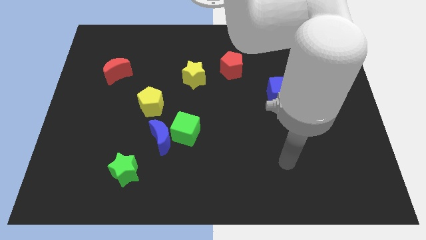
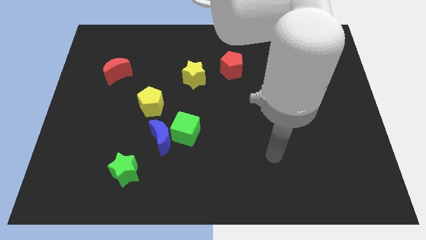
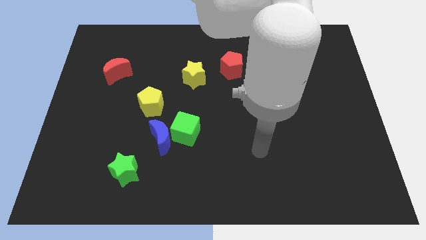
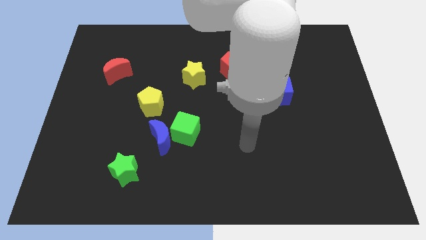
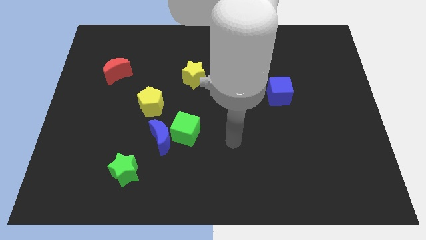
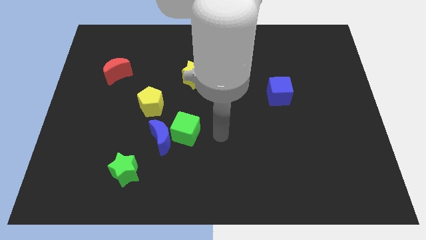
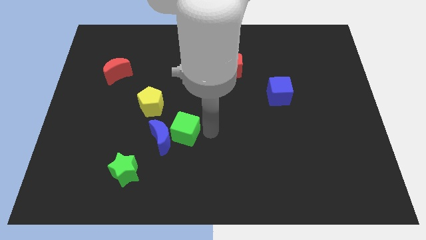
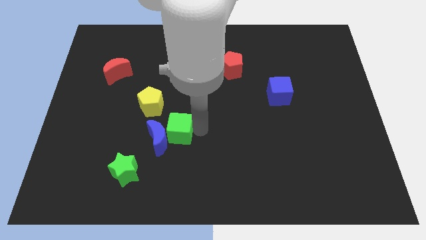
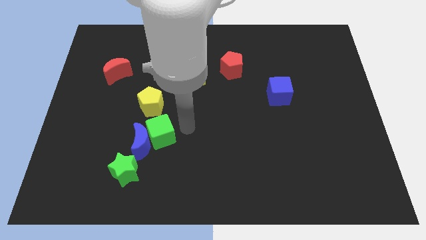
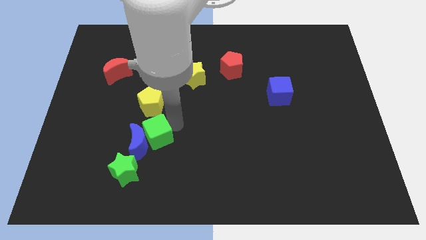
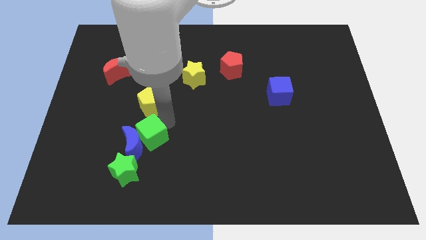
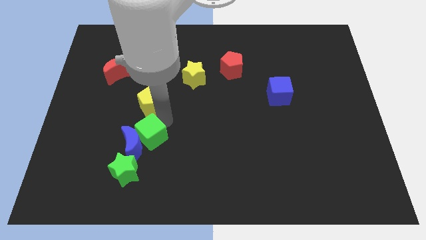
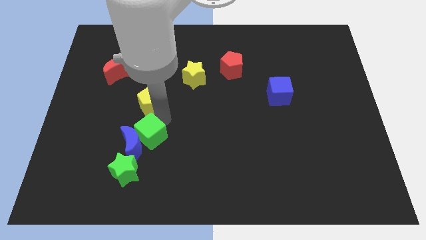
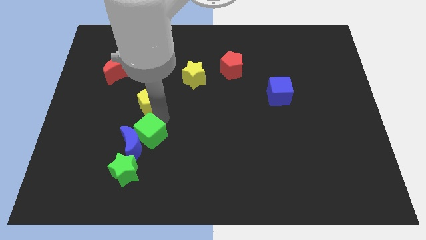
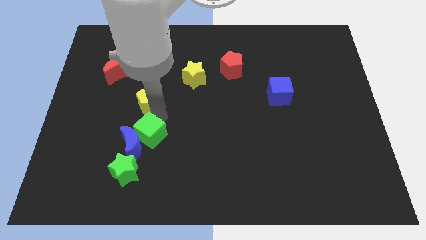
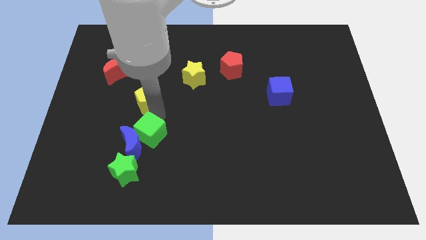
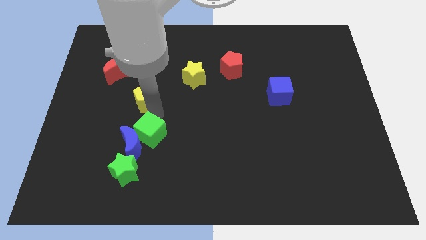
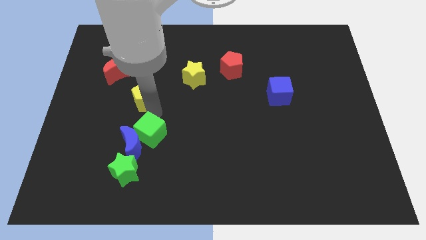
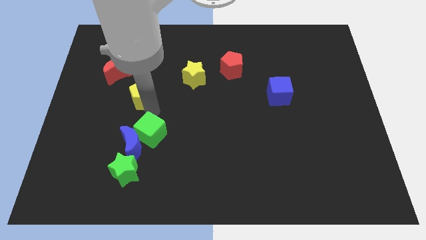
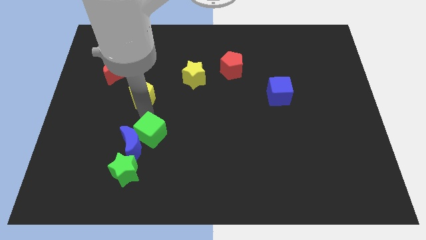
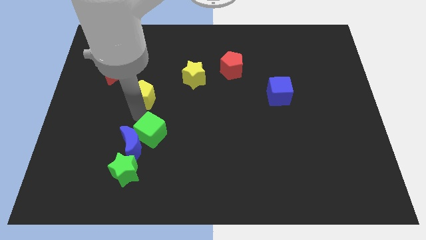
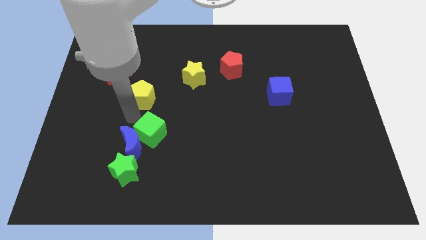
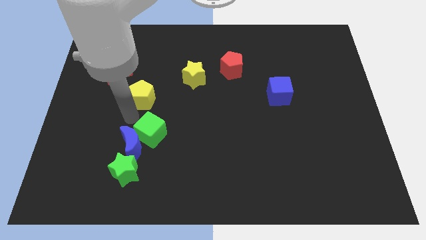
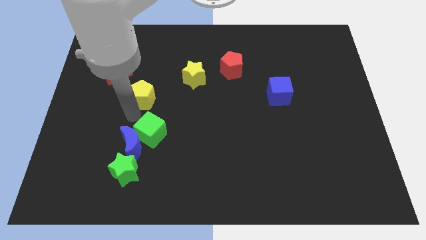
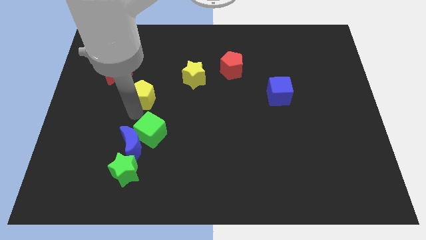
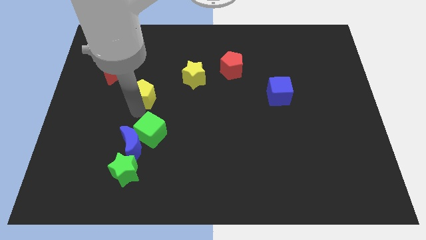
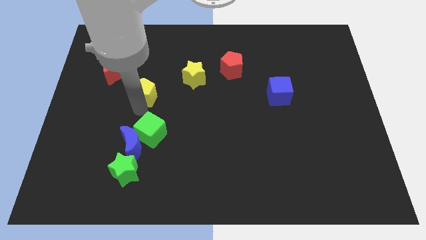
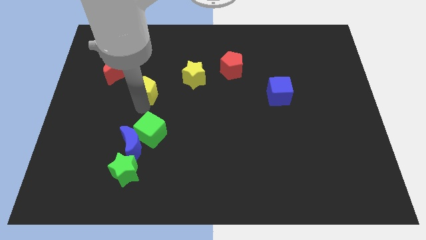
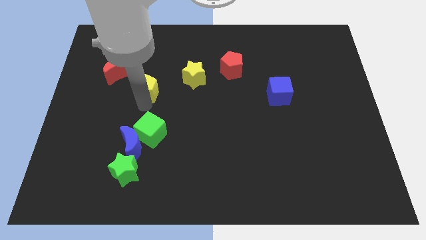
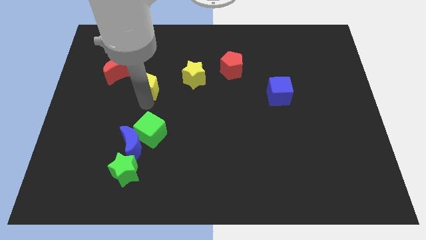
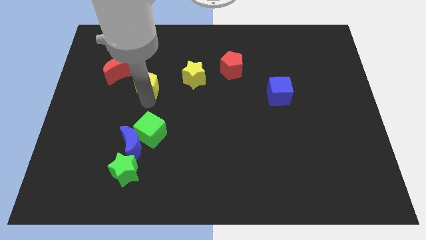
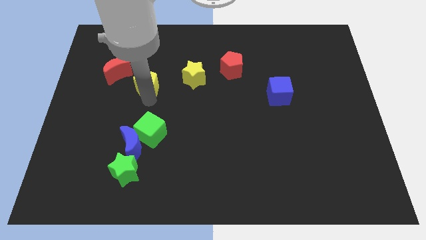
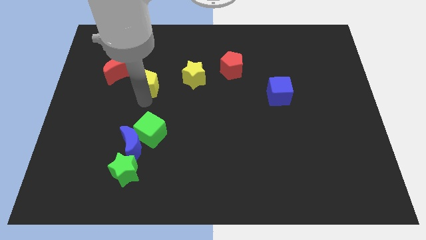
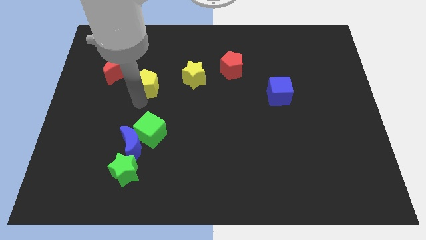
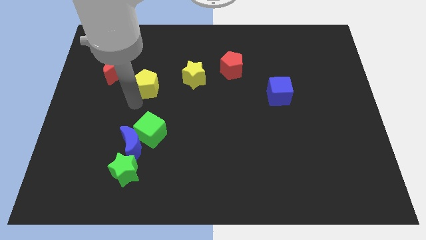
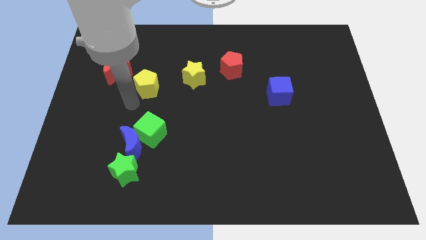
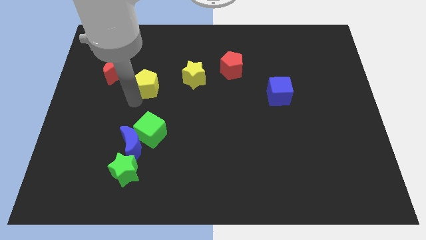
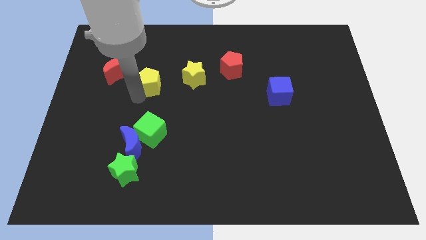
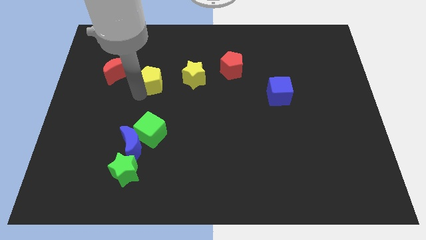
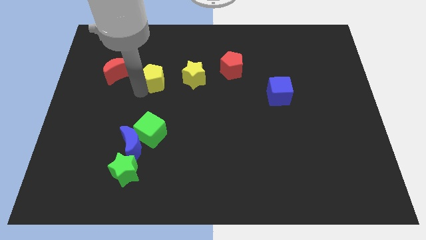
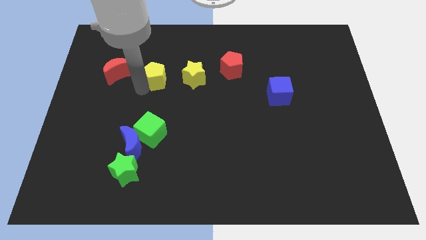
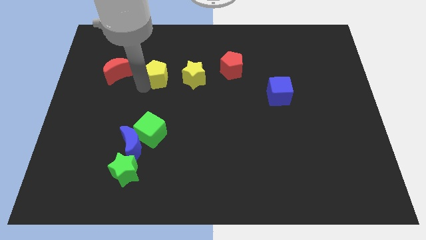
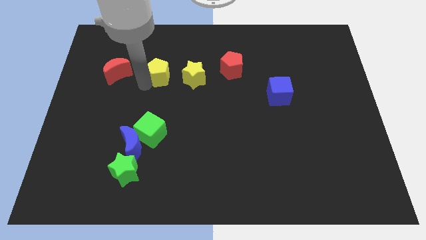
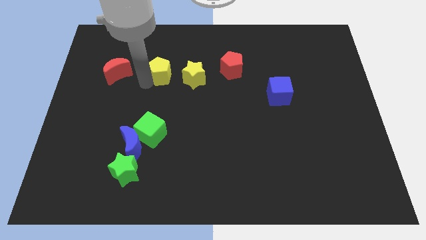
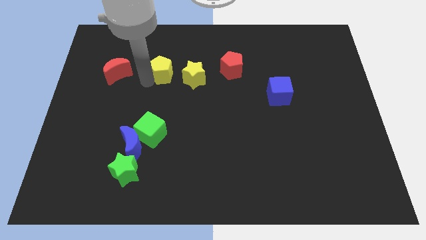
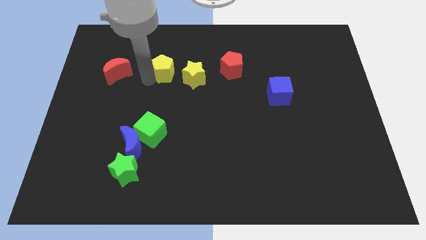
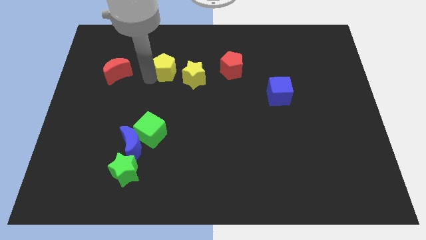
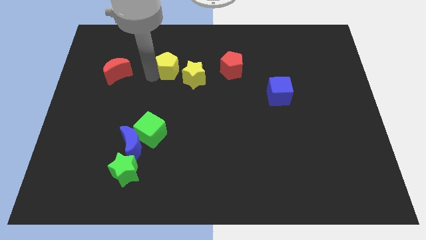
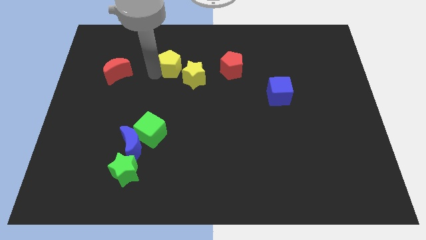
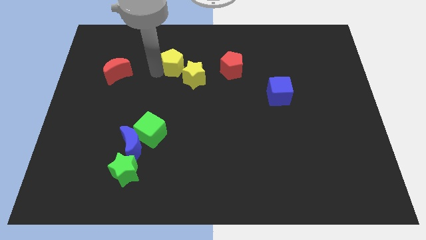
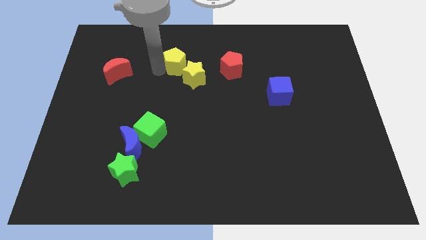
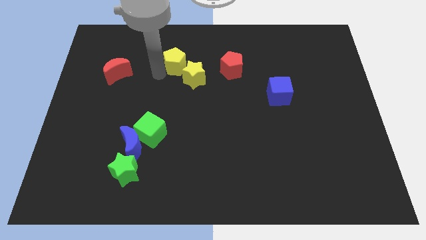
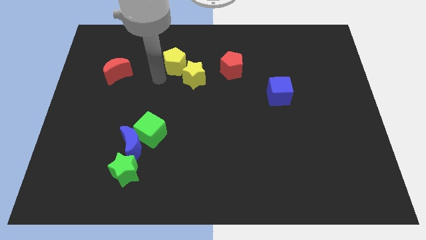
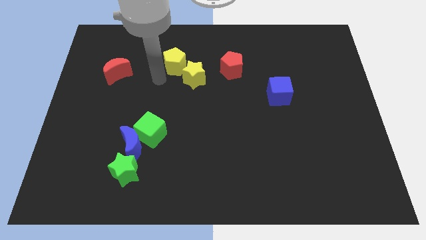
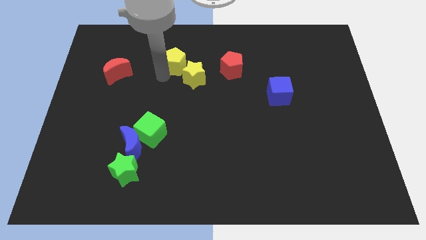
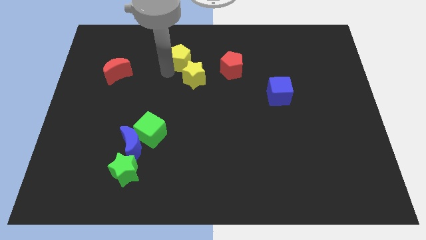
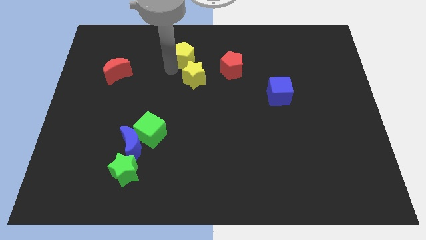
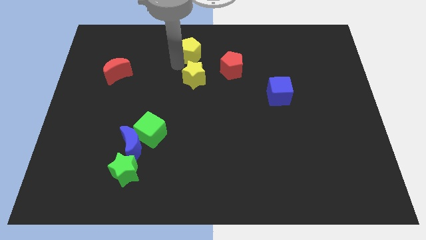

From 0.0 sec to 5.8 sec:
put the yellow pentagon to the top
